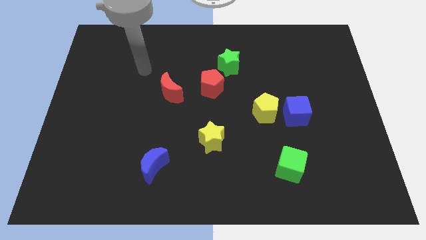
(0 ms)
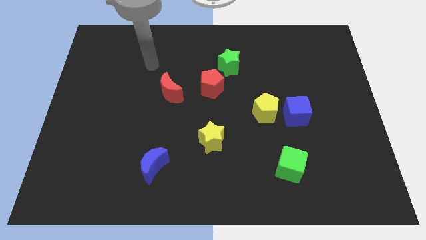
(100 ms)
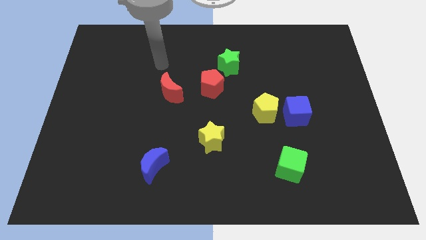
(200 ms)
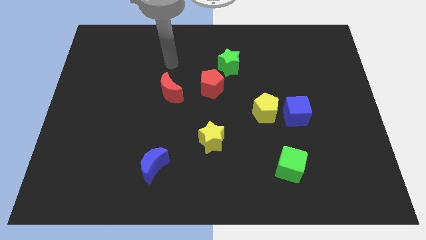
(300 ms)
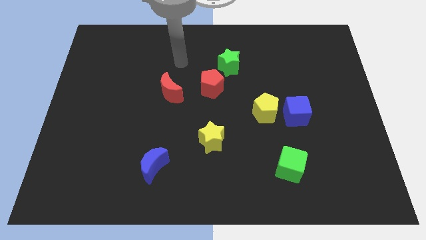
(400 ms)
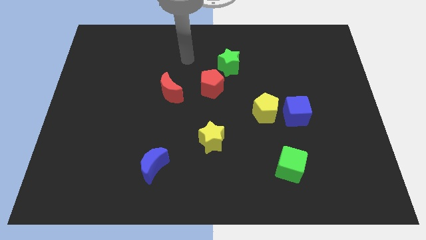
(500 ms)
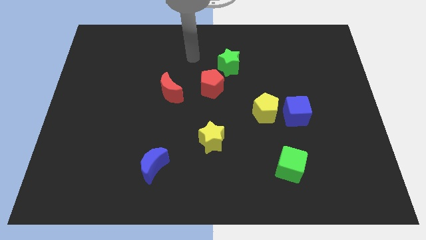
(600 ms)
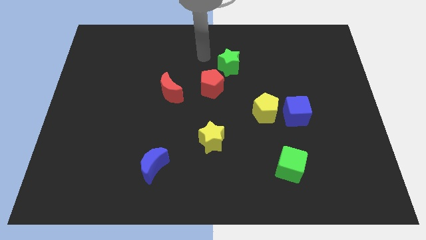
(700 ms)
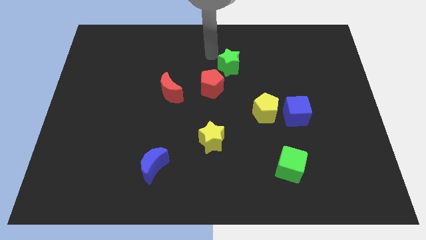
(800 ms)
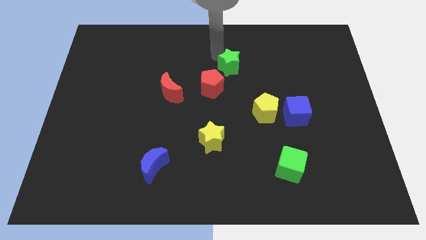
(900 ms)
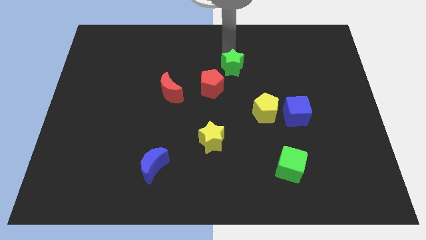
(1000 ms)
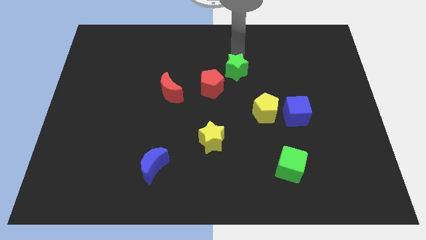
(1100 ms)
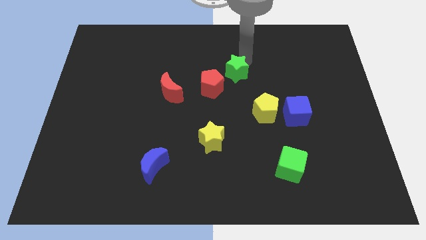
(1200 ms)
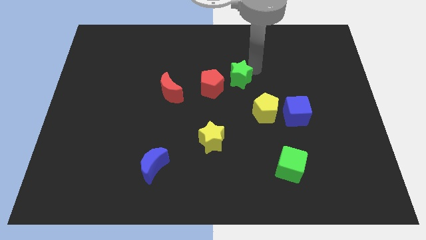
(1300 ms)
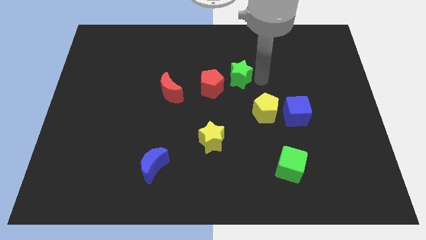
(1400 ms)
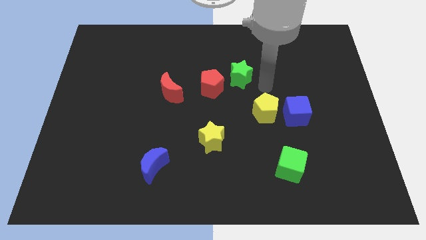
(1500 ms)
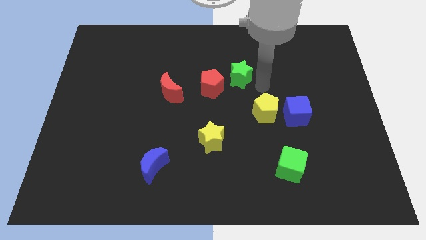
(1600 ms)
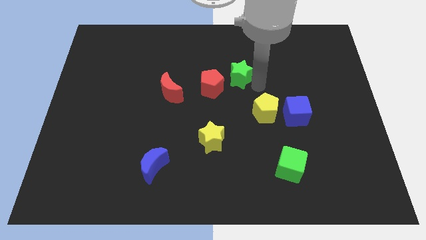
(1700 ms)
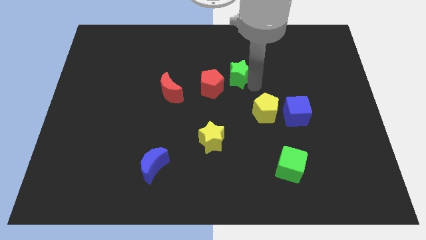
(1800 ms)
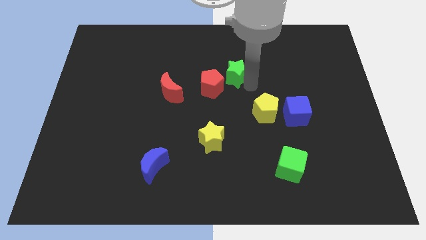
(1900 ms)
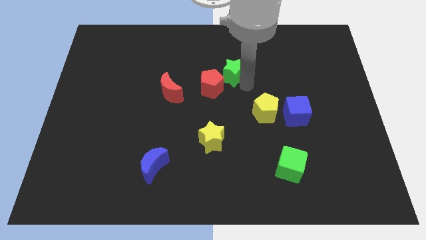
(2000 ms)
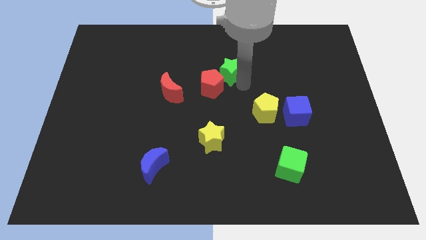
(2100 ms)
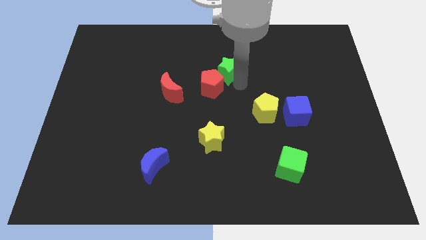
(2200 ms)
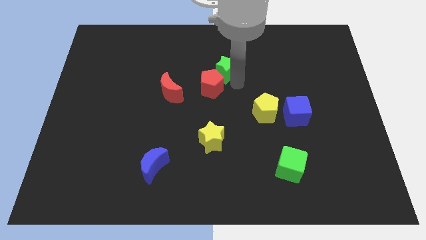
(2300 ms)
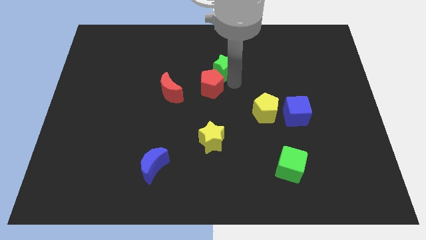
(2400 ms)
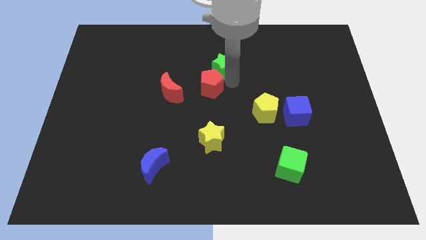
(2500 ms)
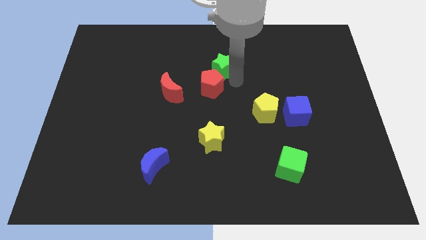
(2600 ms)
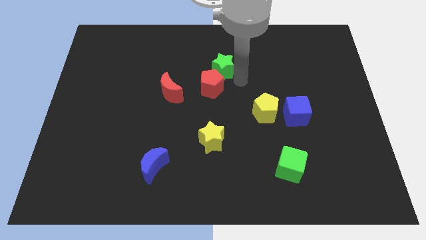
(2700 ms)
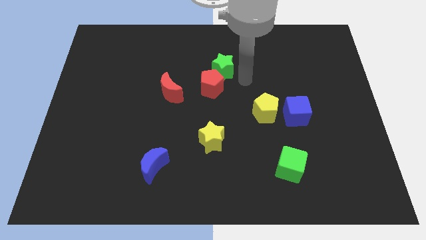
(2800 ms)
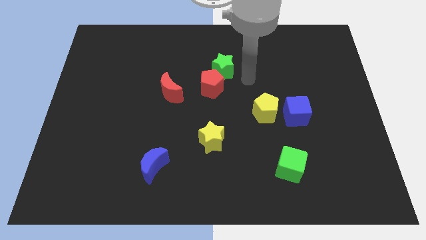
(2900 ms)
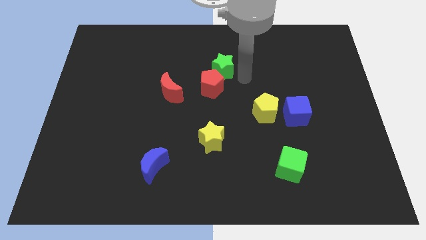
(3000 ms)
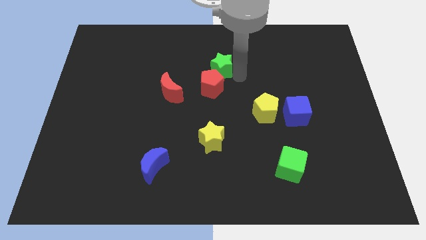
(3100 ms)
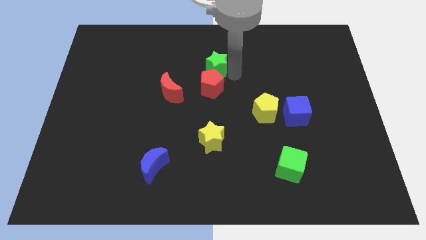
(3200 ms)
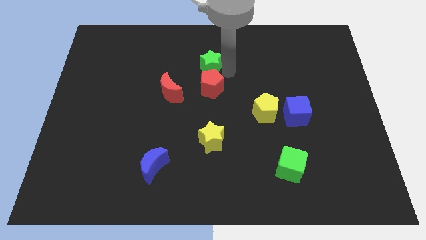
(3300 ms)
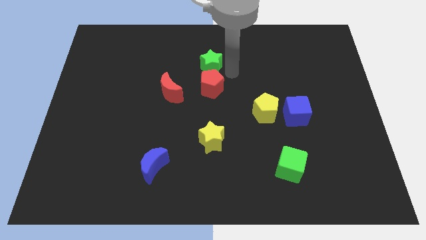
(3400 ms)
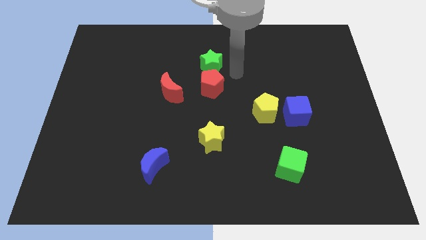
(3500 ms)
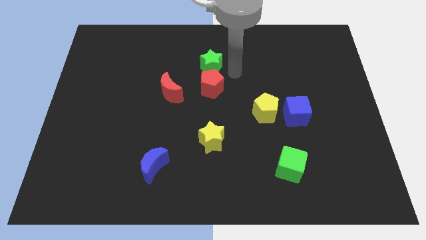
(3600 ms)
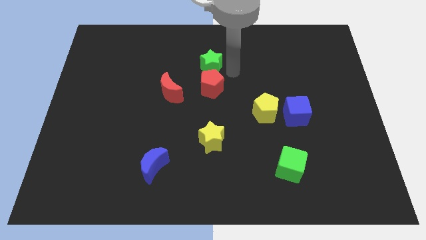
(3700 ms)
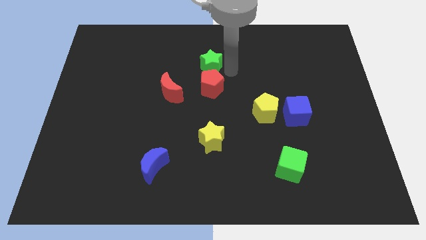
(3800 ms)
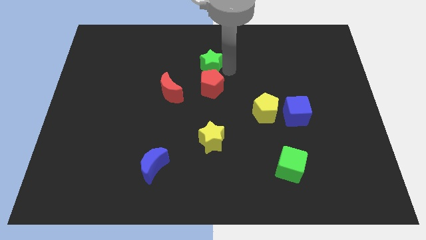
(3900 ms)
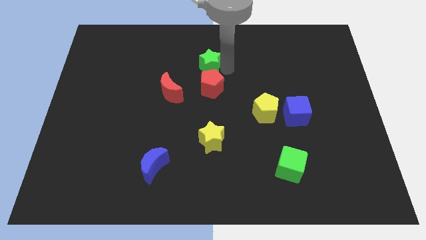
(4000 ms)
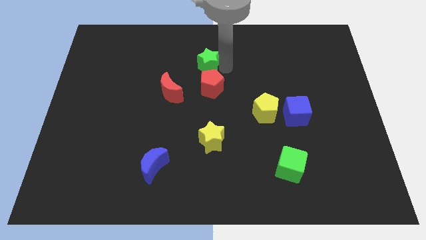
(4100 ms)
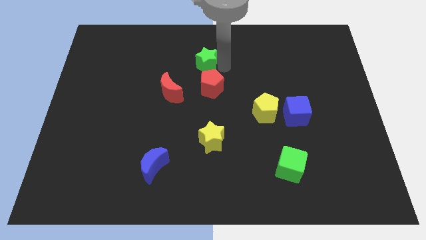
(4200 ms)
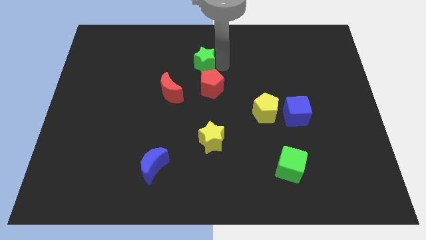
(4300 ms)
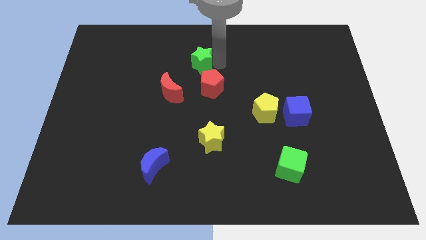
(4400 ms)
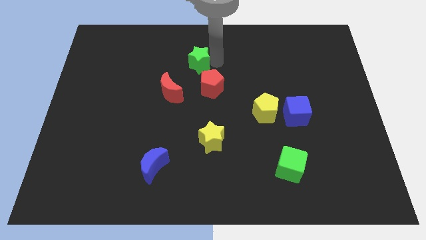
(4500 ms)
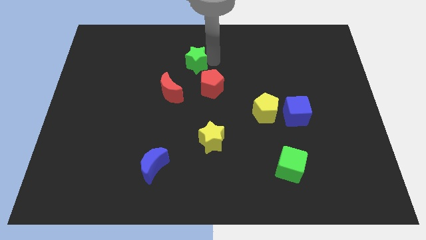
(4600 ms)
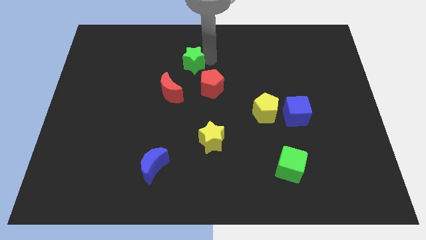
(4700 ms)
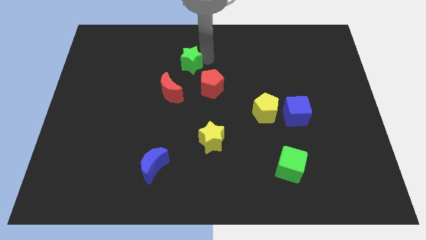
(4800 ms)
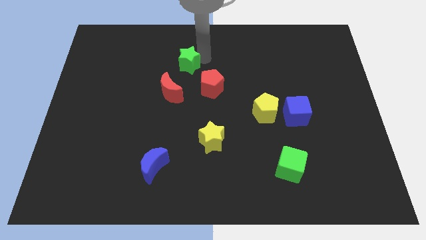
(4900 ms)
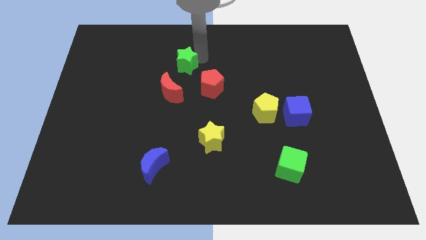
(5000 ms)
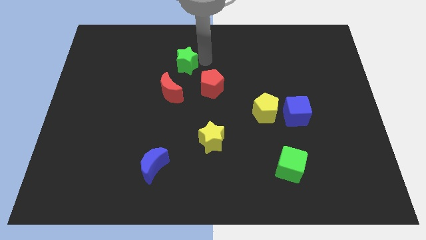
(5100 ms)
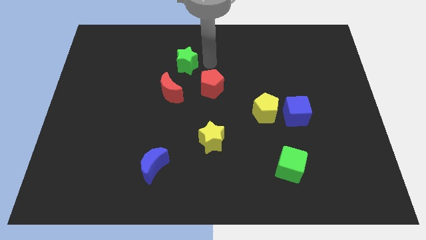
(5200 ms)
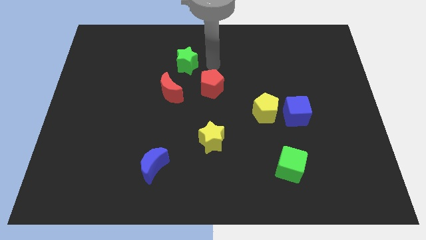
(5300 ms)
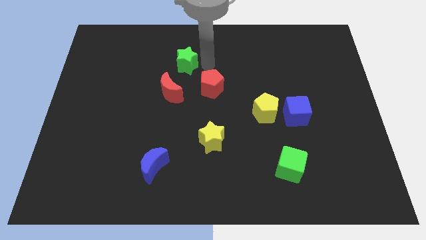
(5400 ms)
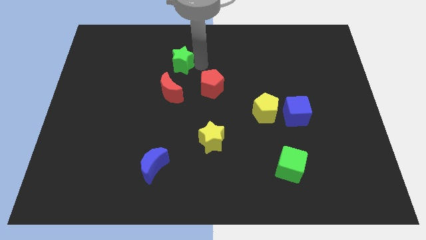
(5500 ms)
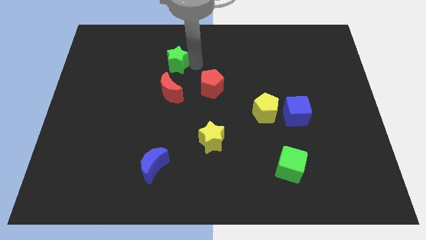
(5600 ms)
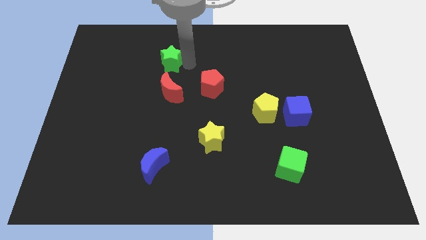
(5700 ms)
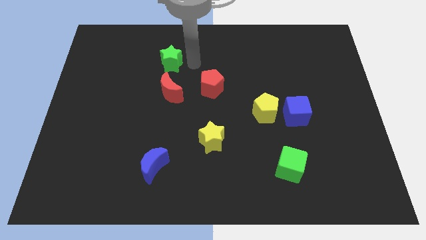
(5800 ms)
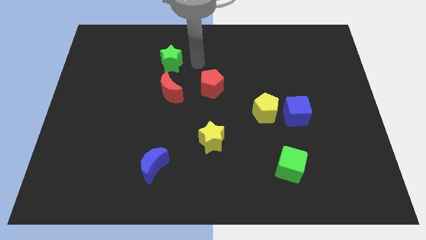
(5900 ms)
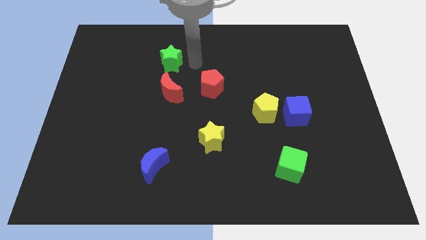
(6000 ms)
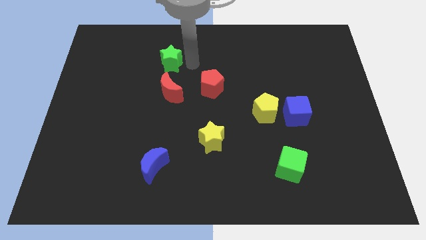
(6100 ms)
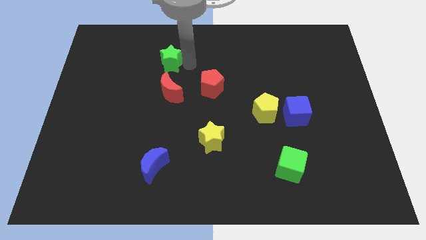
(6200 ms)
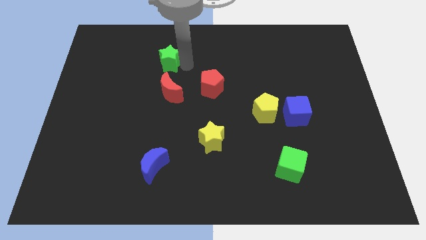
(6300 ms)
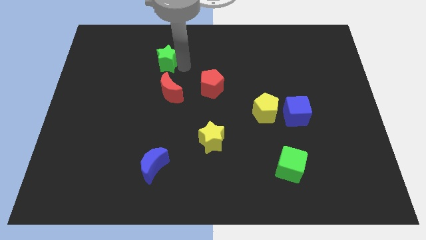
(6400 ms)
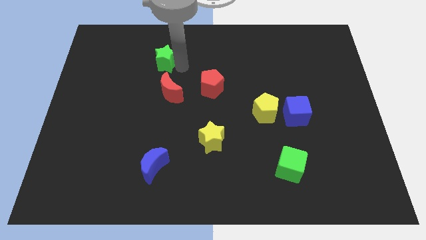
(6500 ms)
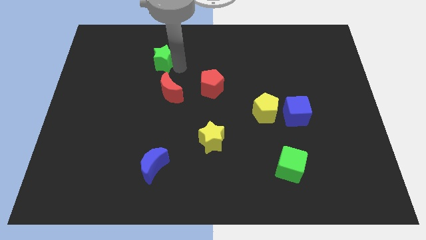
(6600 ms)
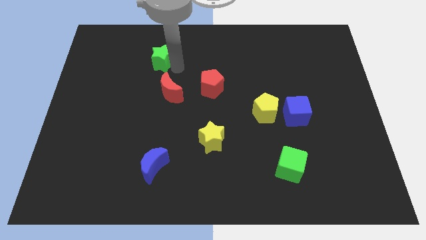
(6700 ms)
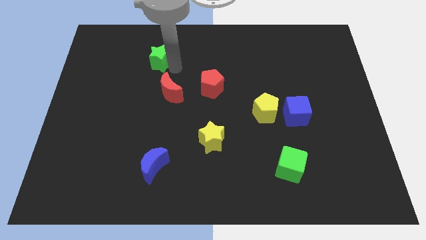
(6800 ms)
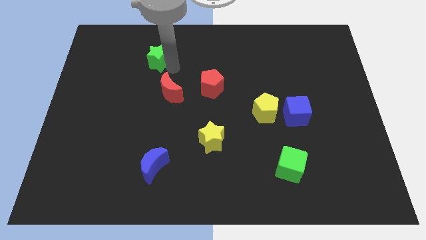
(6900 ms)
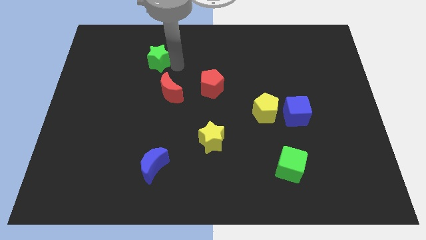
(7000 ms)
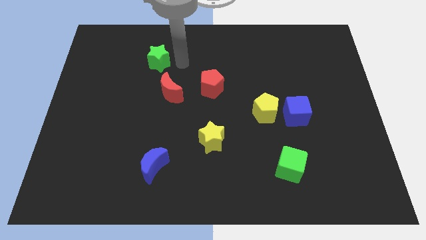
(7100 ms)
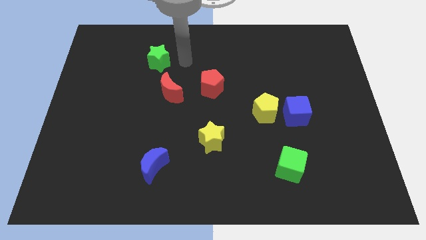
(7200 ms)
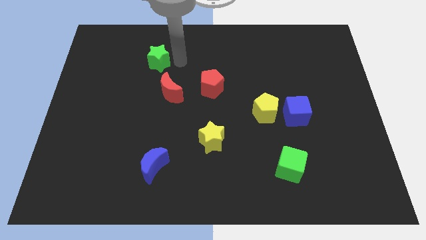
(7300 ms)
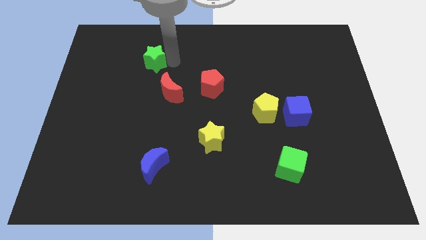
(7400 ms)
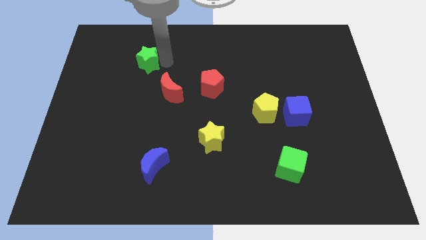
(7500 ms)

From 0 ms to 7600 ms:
push the green star to the left

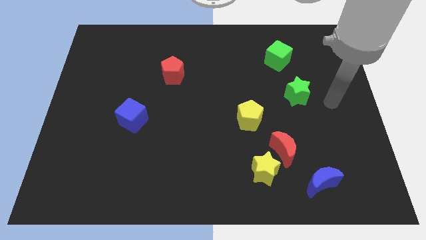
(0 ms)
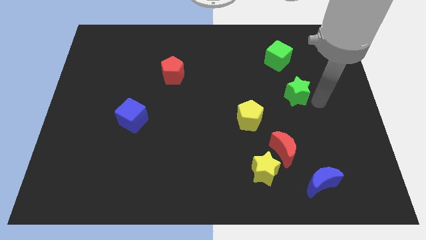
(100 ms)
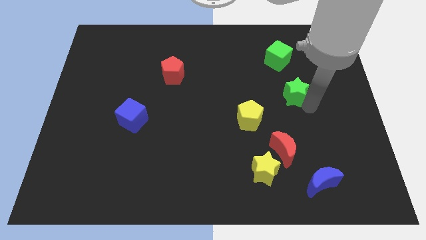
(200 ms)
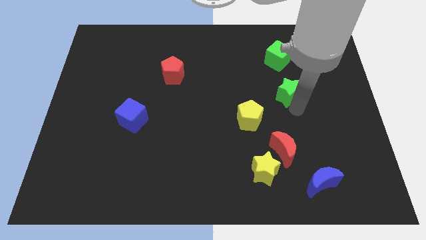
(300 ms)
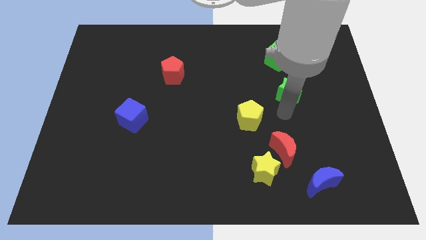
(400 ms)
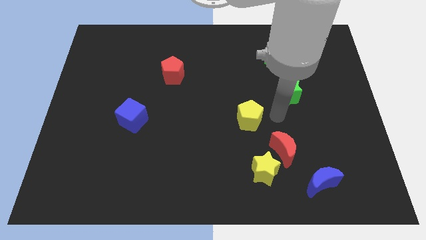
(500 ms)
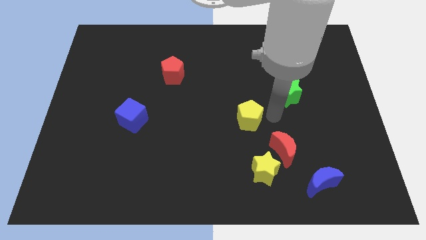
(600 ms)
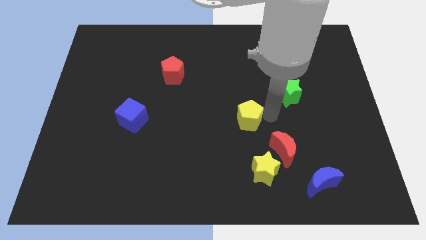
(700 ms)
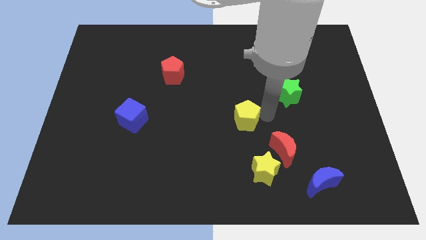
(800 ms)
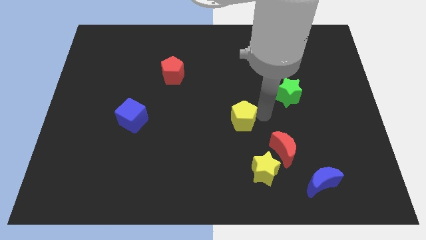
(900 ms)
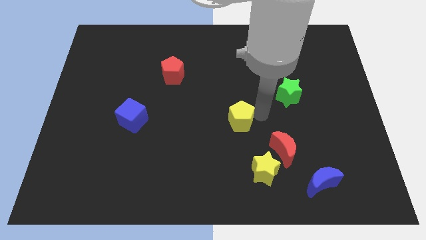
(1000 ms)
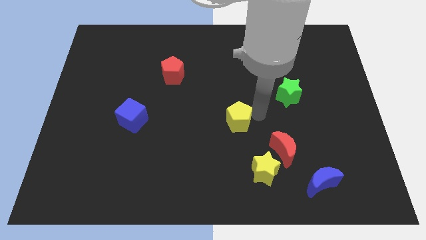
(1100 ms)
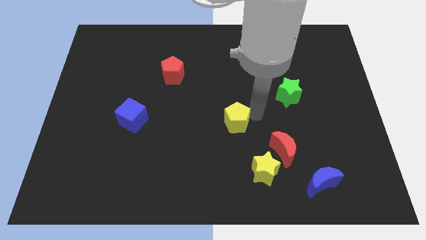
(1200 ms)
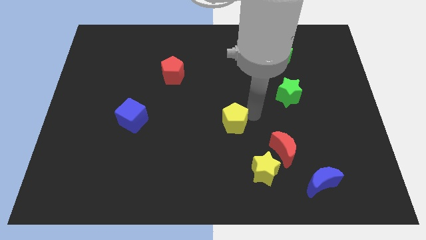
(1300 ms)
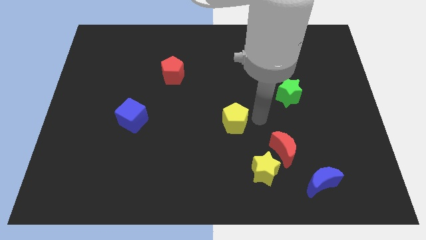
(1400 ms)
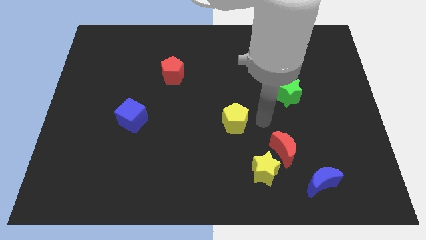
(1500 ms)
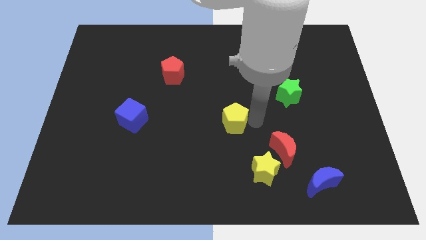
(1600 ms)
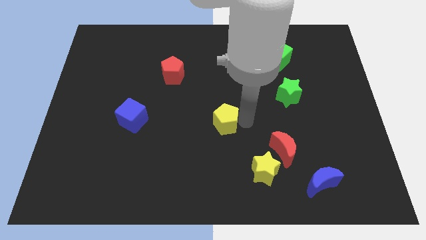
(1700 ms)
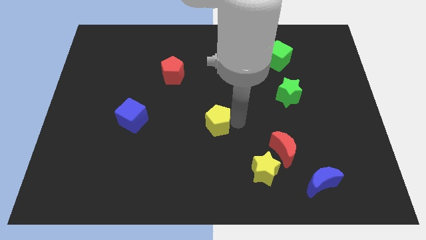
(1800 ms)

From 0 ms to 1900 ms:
move the yellow pentagon a little left
